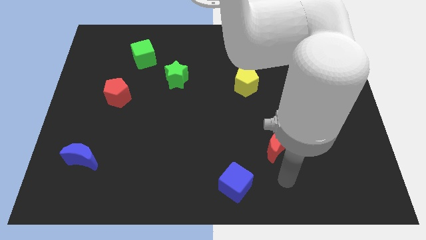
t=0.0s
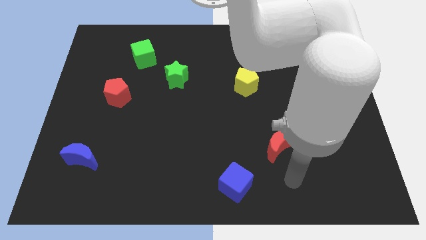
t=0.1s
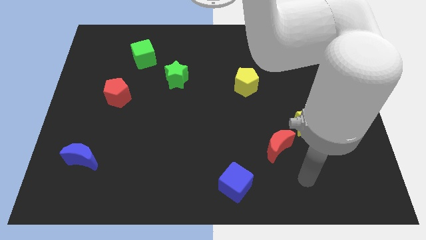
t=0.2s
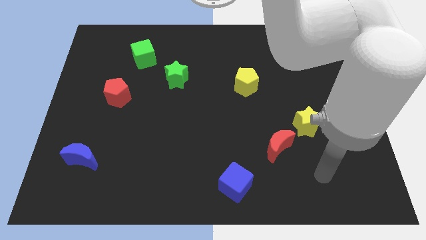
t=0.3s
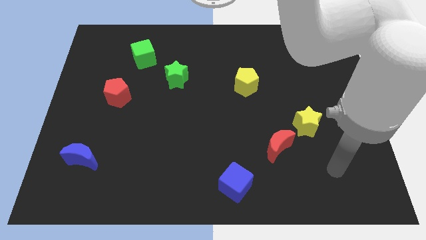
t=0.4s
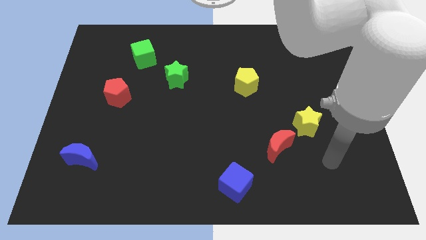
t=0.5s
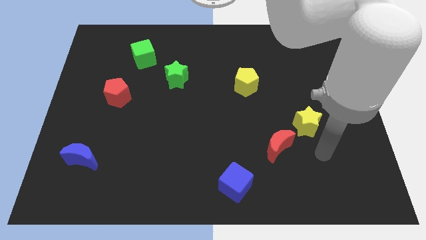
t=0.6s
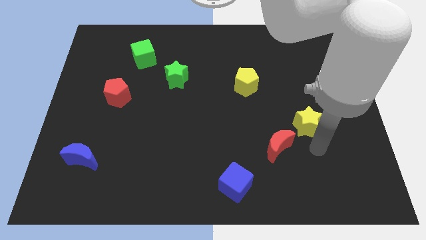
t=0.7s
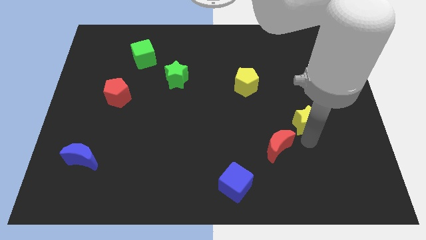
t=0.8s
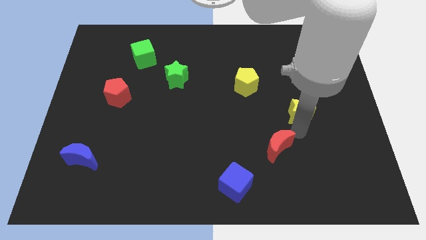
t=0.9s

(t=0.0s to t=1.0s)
move the red moon away from the yellow star

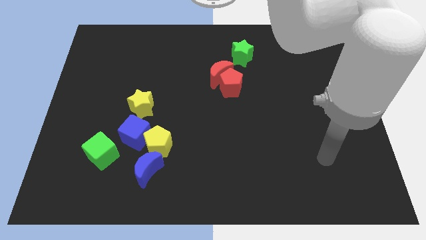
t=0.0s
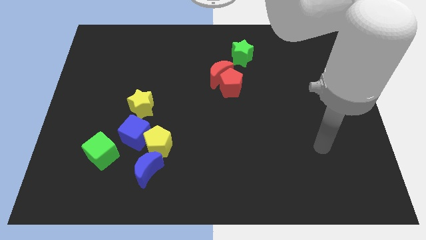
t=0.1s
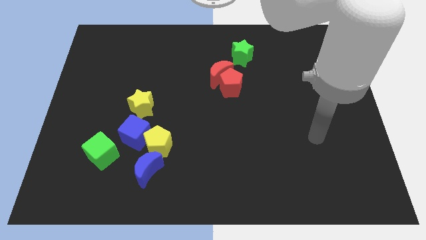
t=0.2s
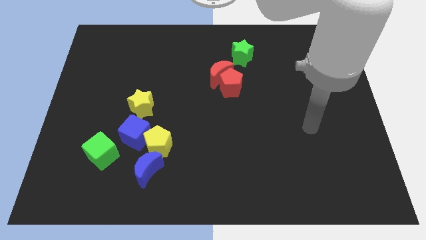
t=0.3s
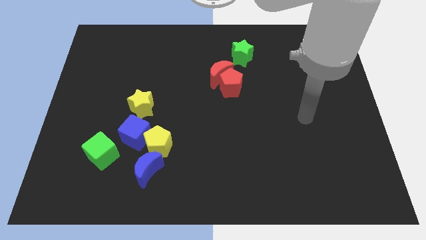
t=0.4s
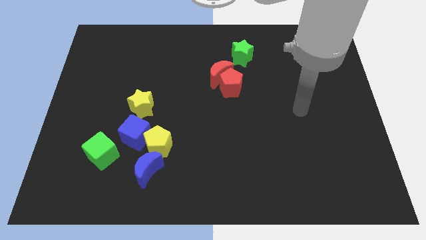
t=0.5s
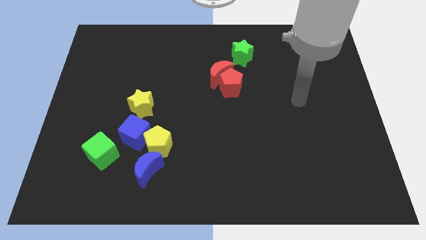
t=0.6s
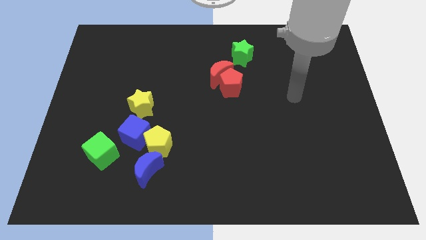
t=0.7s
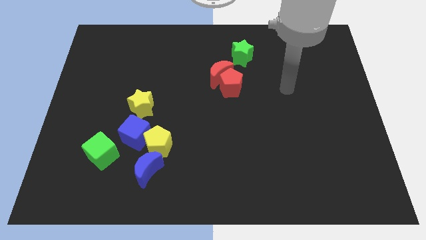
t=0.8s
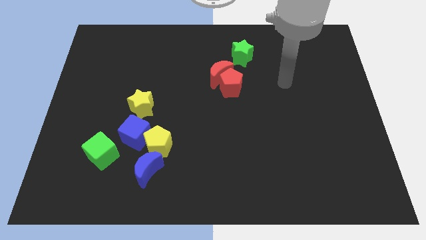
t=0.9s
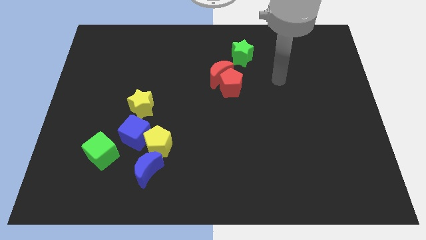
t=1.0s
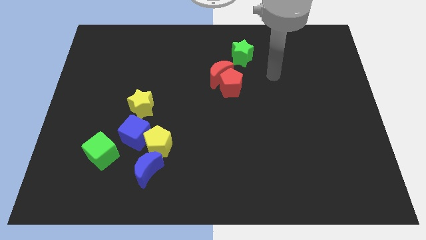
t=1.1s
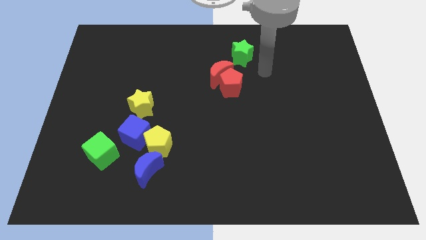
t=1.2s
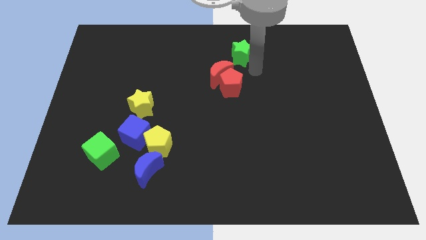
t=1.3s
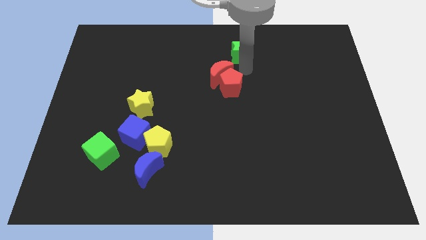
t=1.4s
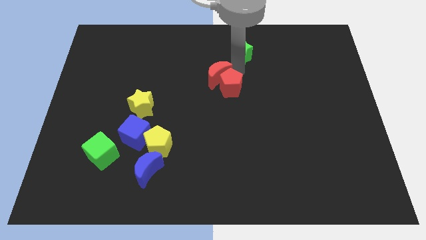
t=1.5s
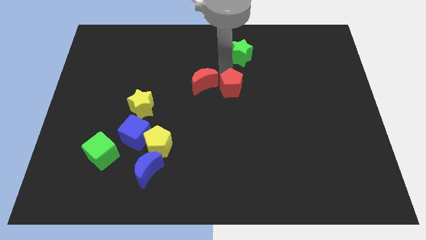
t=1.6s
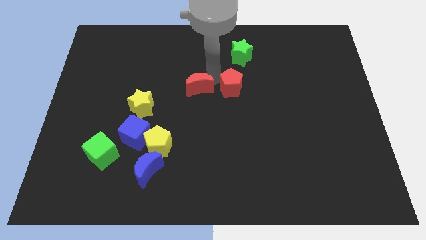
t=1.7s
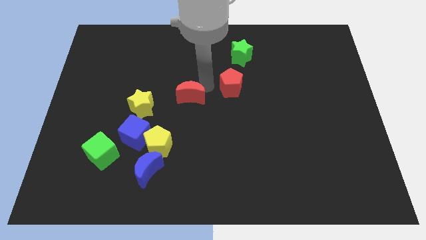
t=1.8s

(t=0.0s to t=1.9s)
pull the red pentagon apart from the red moon

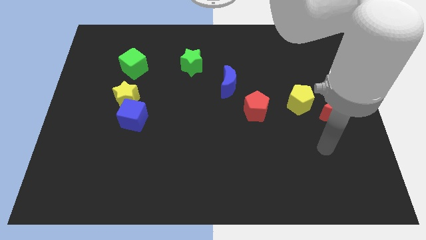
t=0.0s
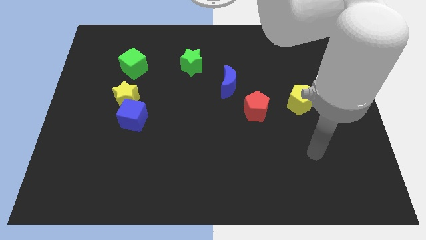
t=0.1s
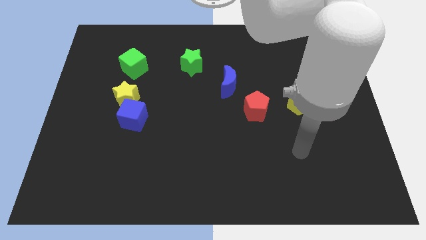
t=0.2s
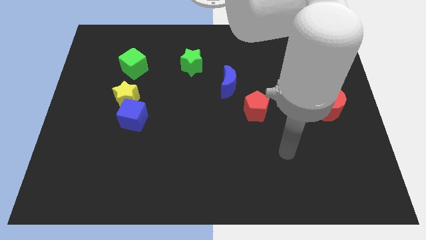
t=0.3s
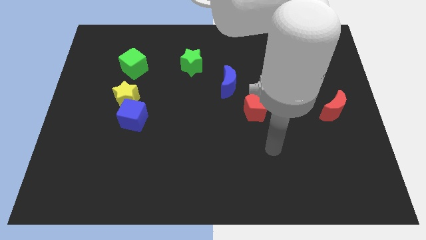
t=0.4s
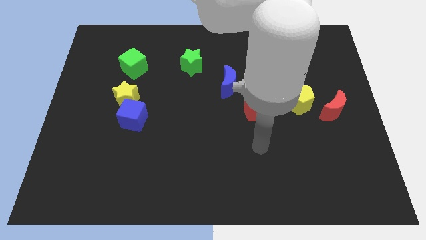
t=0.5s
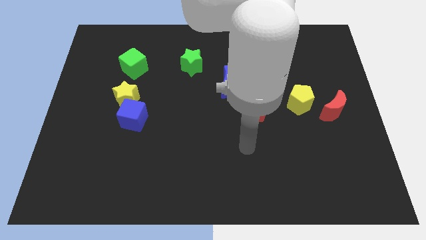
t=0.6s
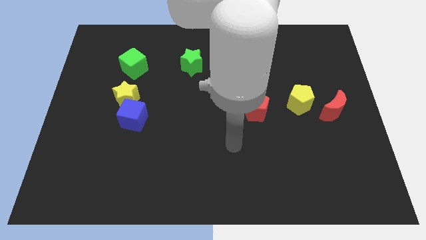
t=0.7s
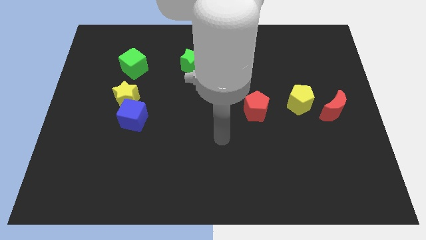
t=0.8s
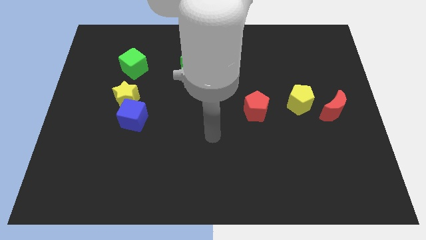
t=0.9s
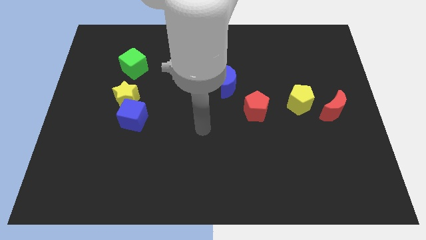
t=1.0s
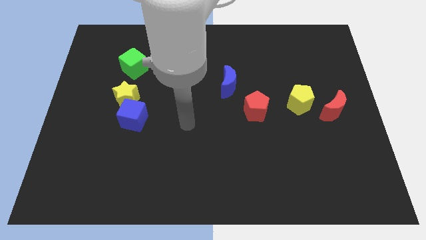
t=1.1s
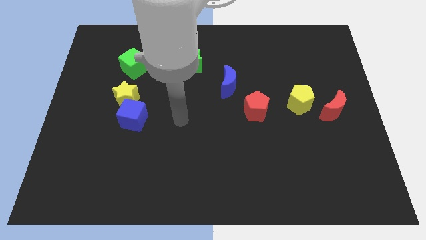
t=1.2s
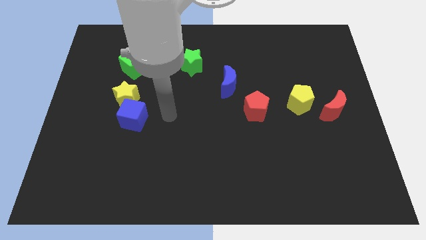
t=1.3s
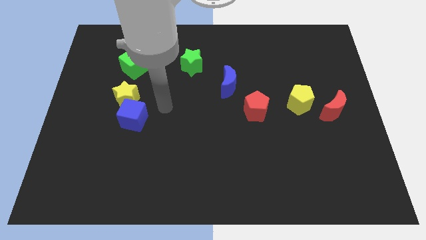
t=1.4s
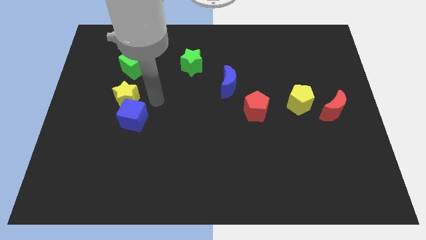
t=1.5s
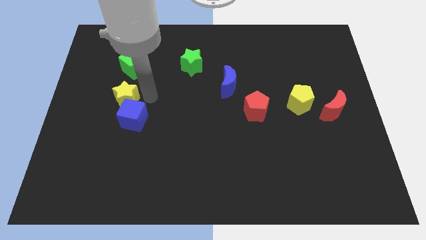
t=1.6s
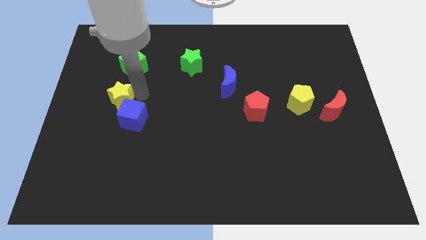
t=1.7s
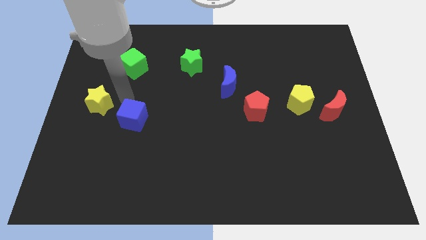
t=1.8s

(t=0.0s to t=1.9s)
separate the blue cube from the yellow star

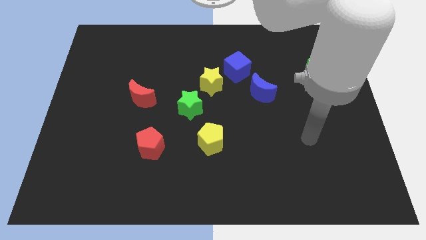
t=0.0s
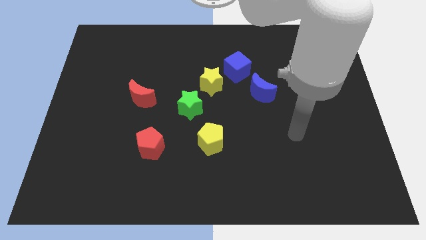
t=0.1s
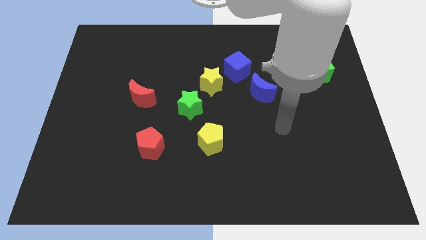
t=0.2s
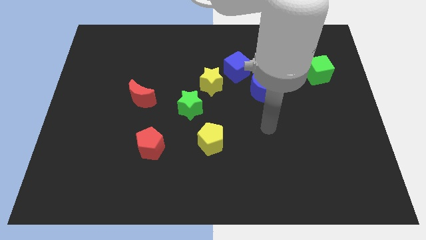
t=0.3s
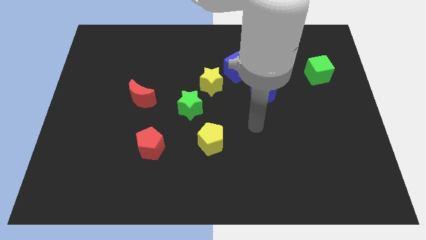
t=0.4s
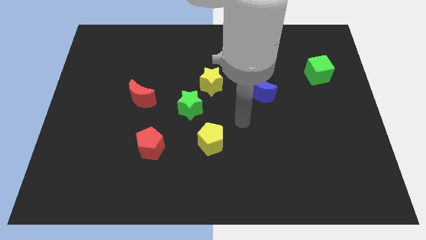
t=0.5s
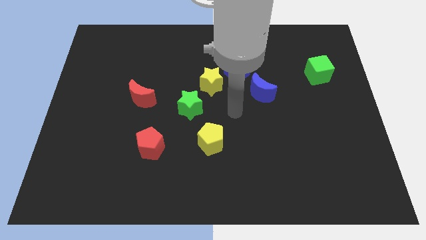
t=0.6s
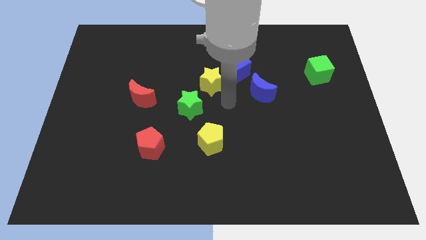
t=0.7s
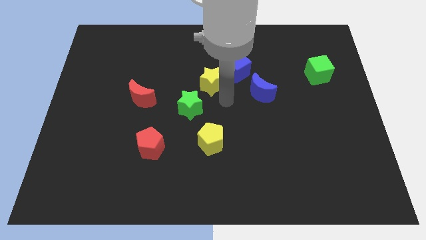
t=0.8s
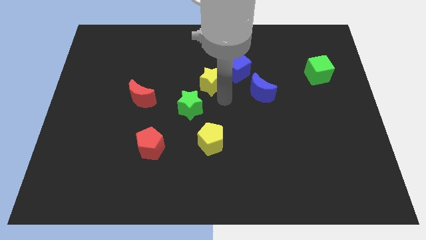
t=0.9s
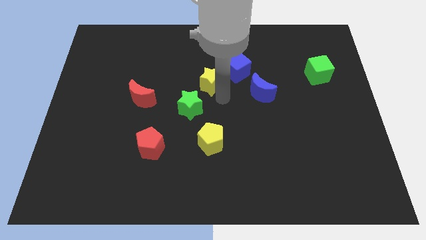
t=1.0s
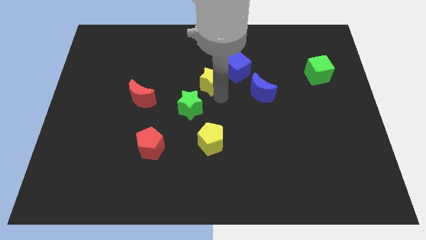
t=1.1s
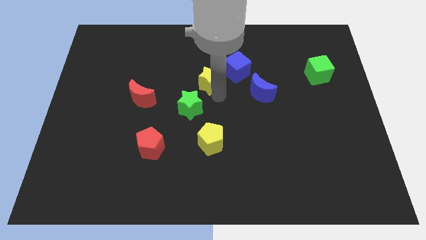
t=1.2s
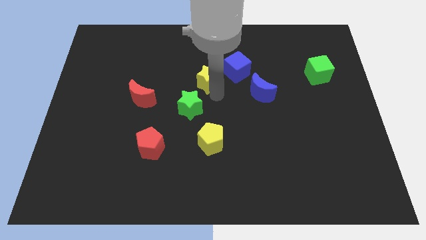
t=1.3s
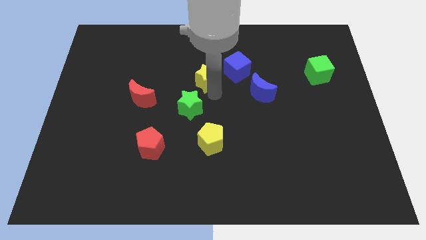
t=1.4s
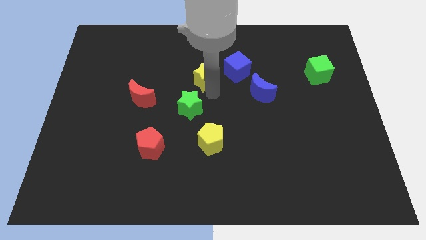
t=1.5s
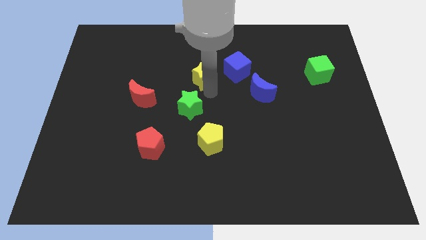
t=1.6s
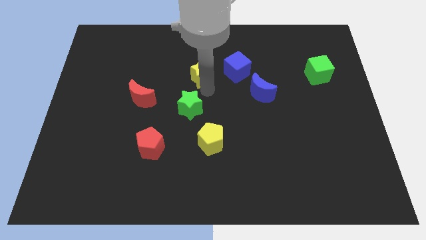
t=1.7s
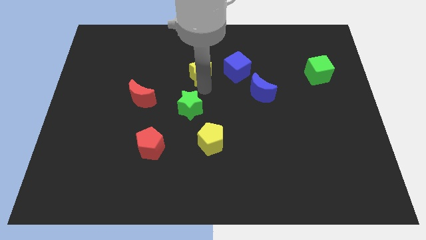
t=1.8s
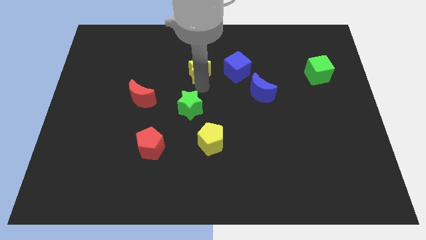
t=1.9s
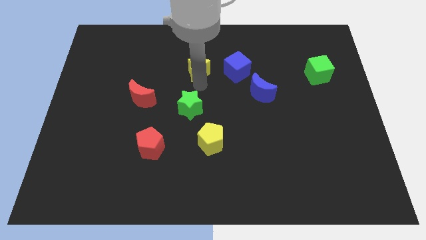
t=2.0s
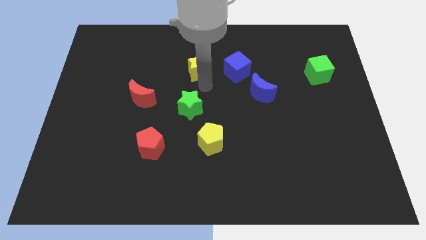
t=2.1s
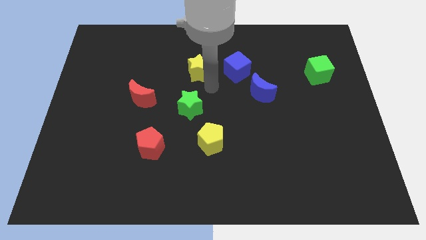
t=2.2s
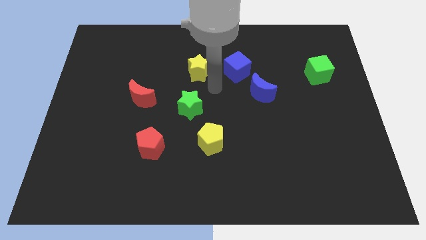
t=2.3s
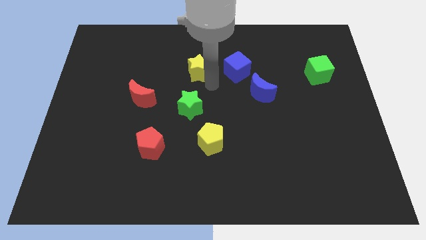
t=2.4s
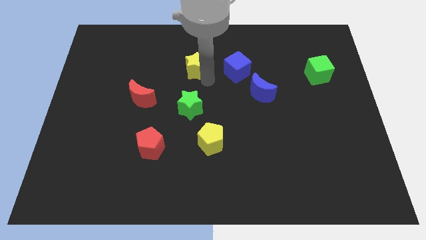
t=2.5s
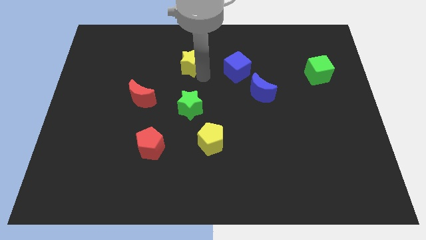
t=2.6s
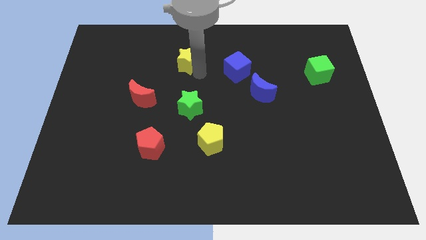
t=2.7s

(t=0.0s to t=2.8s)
pull the yellow star apart from the blue cube and green star

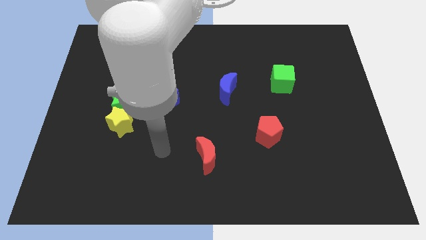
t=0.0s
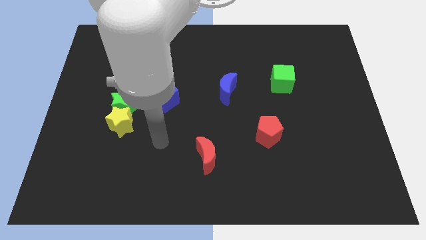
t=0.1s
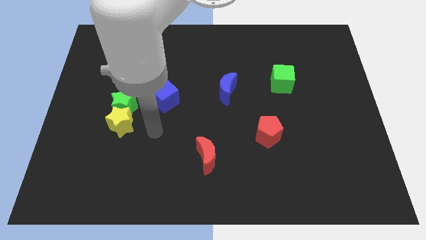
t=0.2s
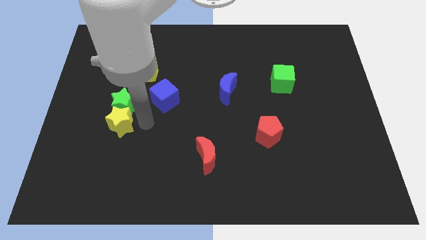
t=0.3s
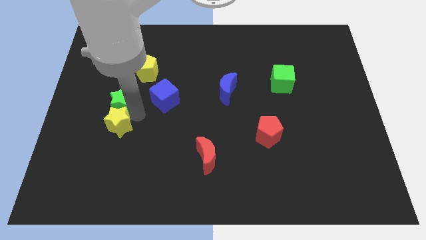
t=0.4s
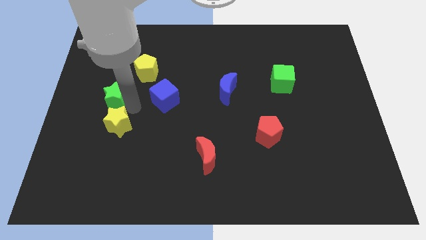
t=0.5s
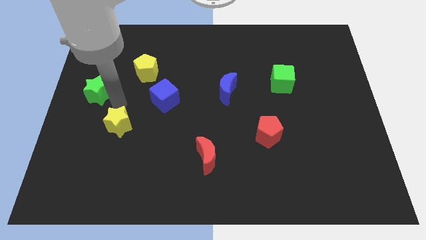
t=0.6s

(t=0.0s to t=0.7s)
move the yellow star away from the green star

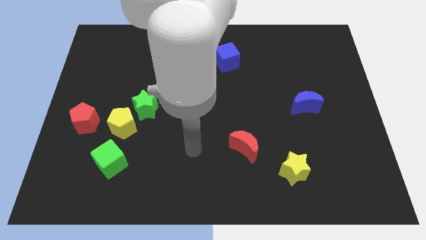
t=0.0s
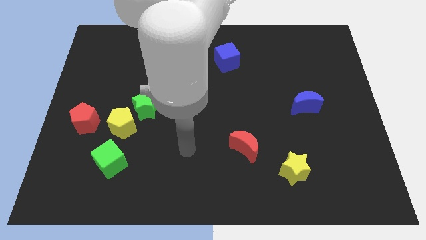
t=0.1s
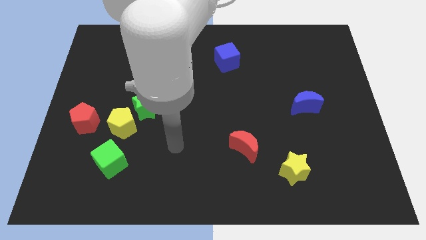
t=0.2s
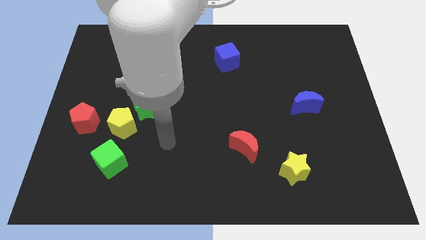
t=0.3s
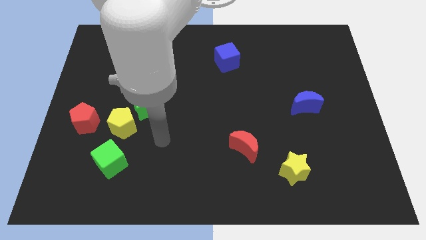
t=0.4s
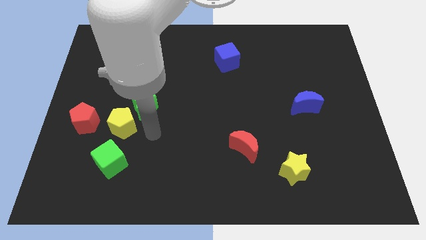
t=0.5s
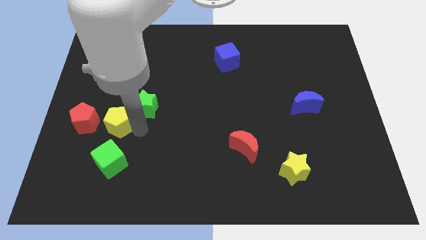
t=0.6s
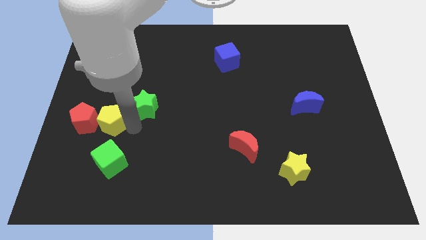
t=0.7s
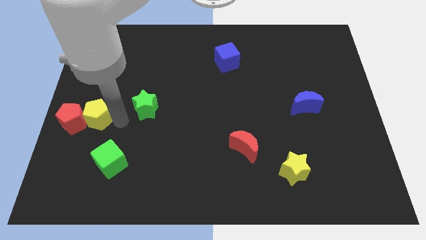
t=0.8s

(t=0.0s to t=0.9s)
move the green star away from the yellow pentagon
